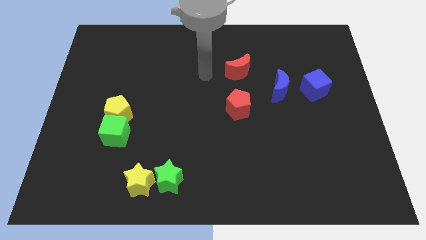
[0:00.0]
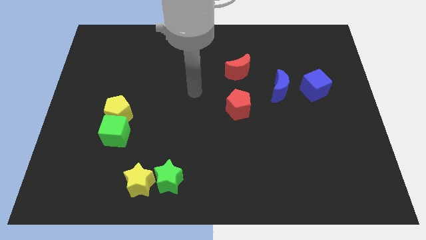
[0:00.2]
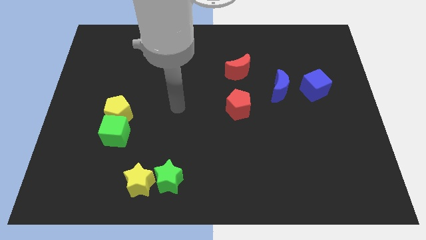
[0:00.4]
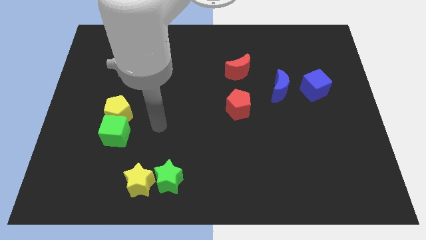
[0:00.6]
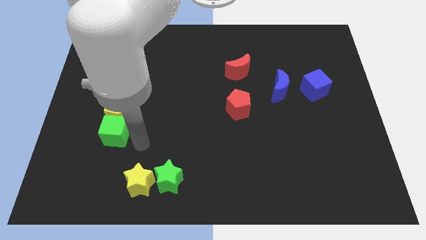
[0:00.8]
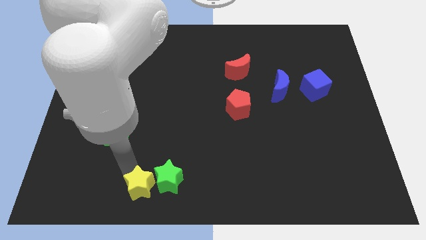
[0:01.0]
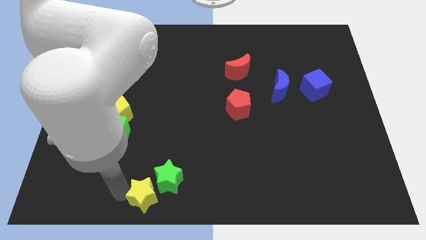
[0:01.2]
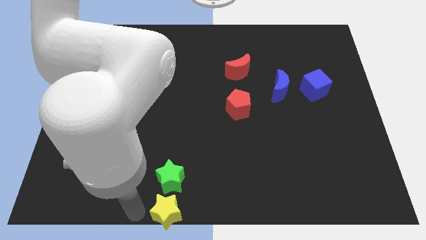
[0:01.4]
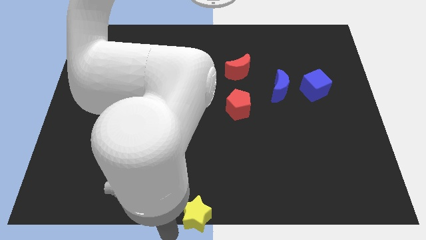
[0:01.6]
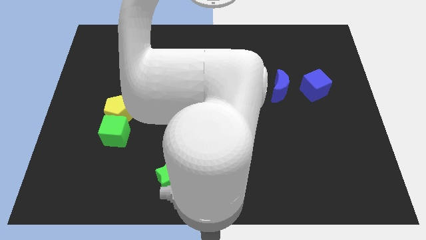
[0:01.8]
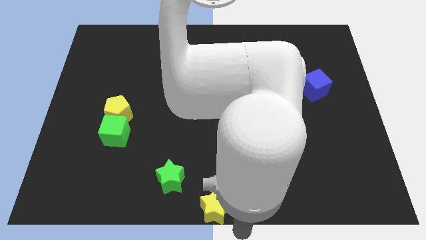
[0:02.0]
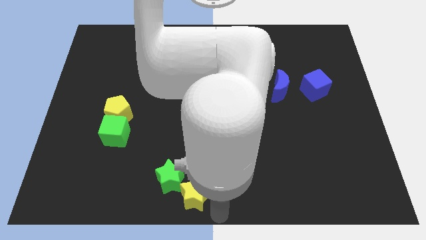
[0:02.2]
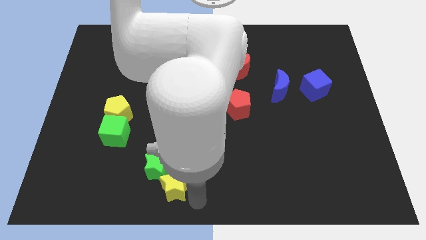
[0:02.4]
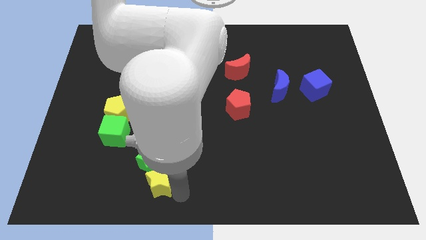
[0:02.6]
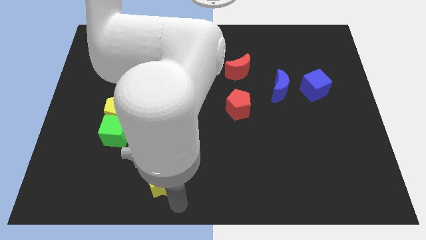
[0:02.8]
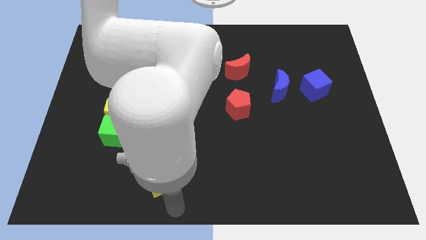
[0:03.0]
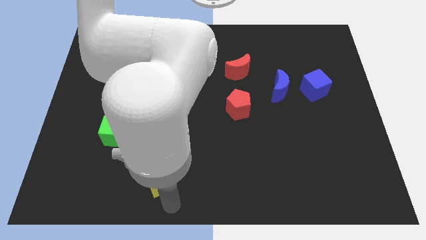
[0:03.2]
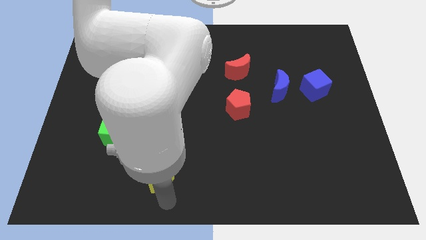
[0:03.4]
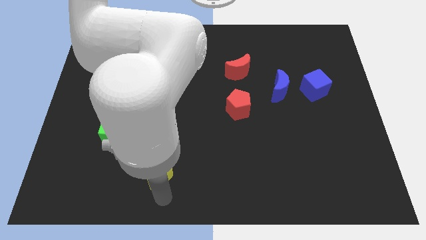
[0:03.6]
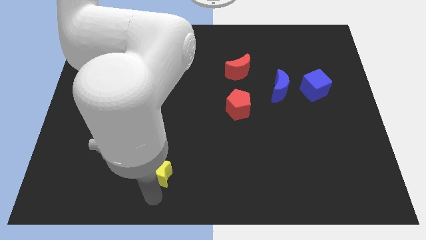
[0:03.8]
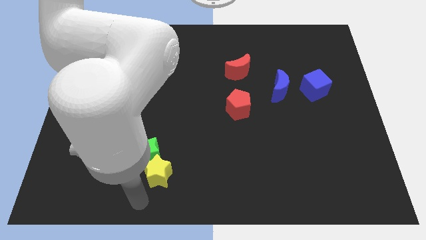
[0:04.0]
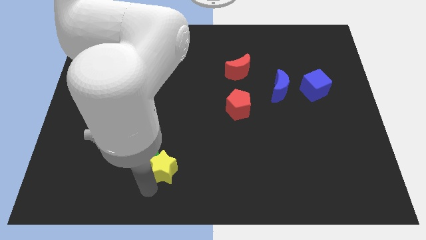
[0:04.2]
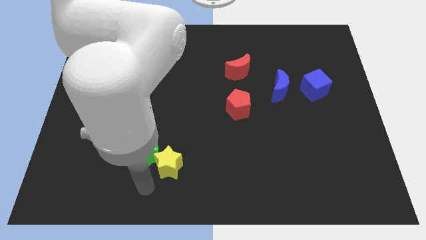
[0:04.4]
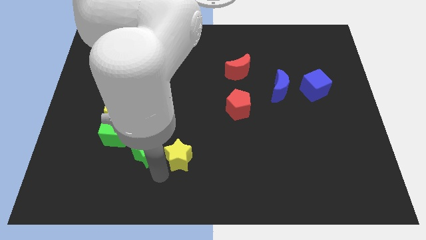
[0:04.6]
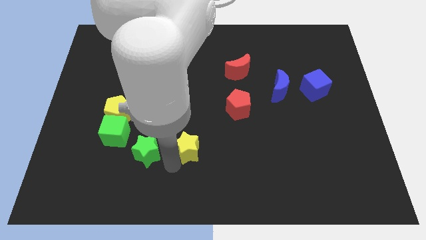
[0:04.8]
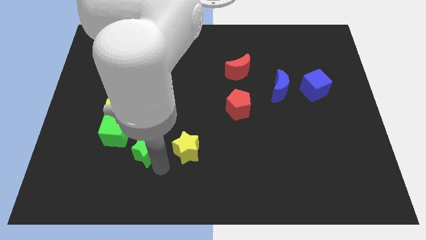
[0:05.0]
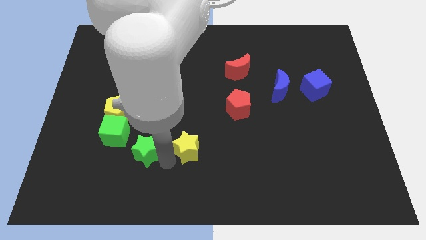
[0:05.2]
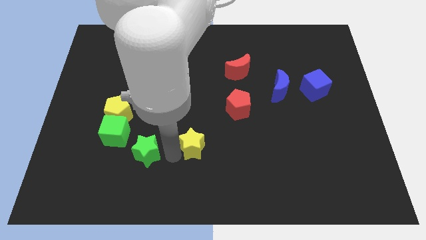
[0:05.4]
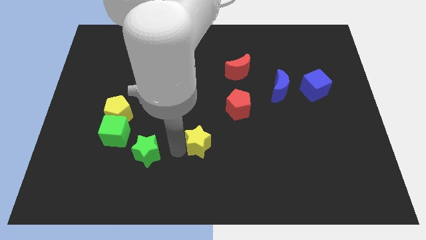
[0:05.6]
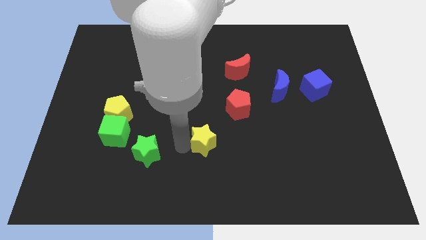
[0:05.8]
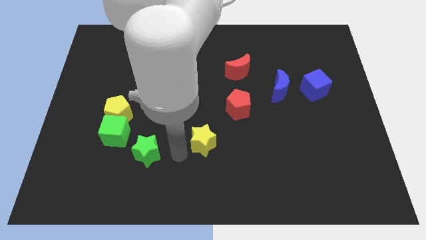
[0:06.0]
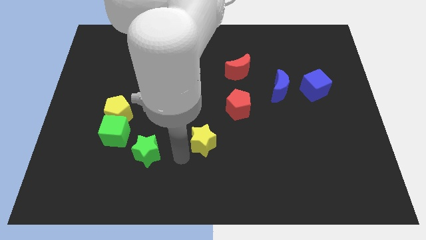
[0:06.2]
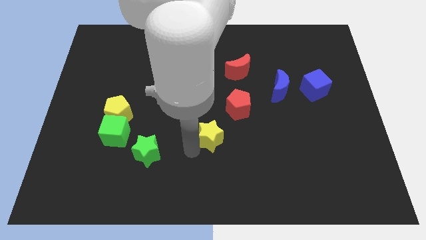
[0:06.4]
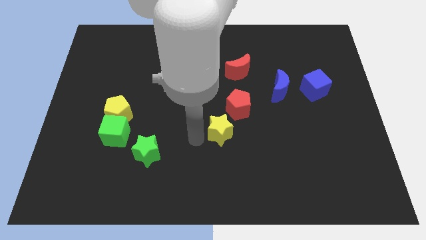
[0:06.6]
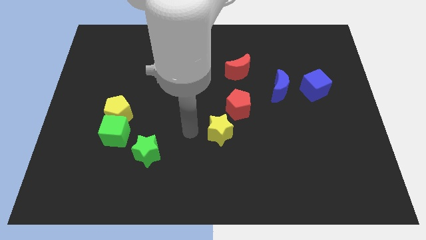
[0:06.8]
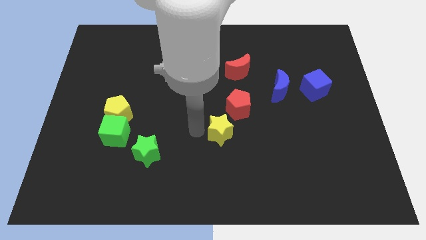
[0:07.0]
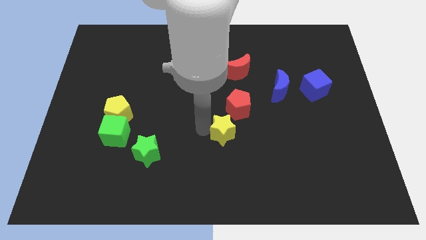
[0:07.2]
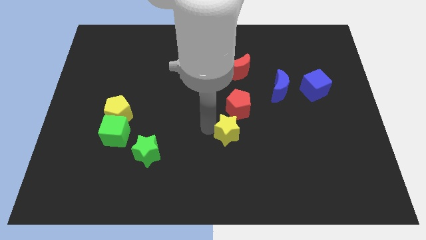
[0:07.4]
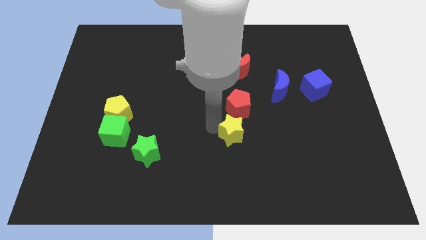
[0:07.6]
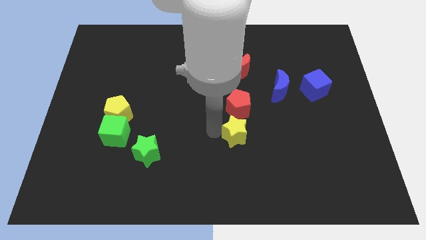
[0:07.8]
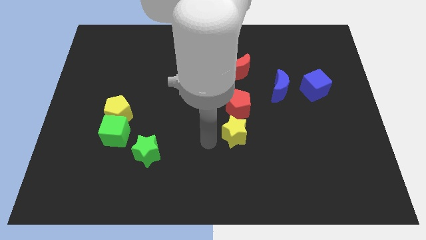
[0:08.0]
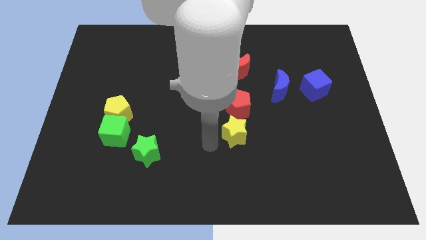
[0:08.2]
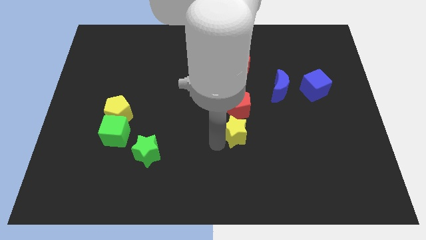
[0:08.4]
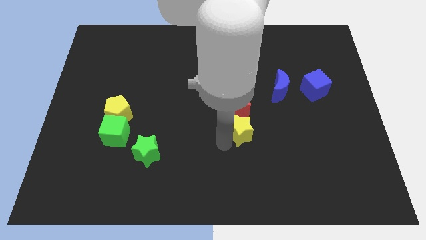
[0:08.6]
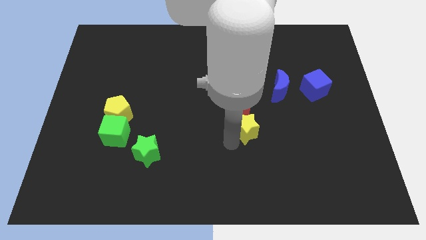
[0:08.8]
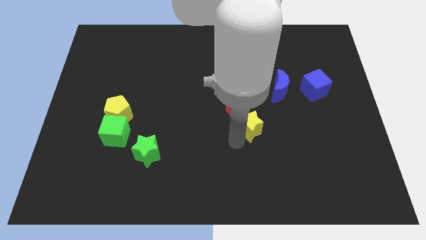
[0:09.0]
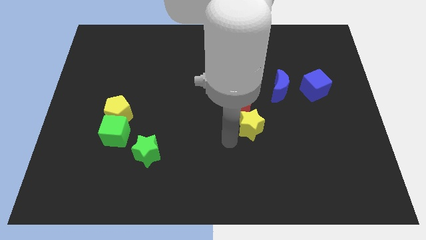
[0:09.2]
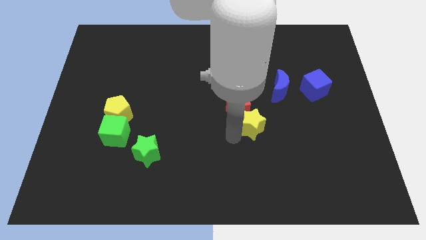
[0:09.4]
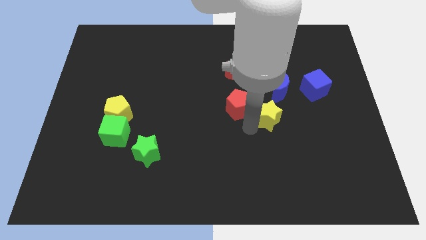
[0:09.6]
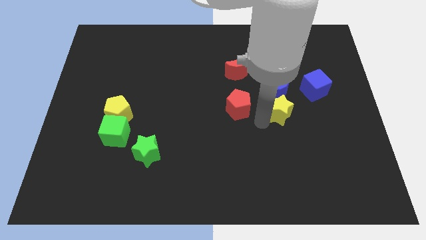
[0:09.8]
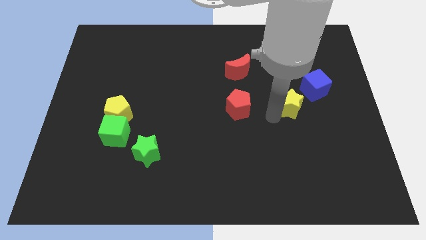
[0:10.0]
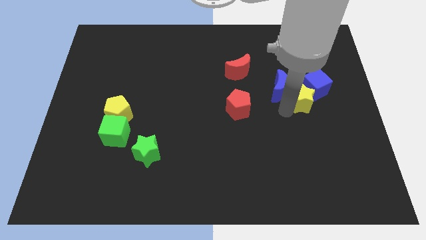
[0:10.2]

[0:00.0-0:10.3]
put the yellow star towards the blue cube

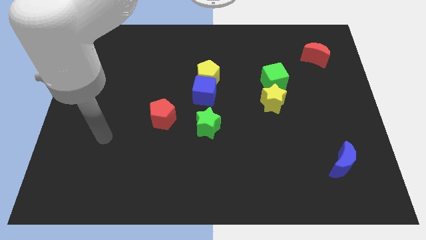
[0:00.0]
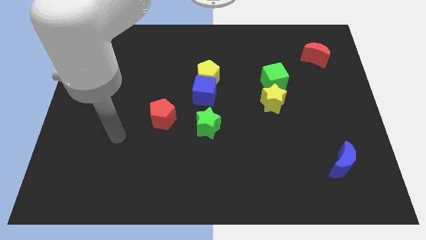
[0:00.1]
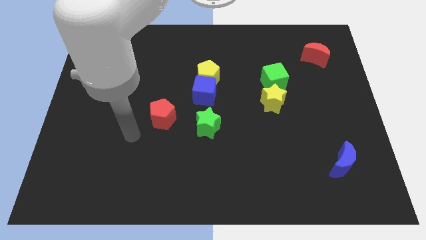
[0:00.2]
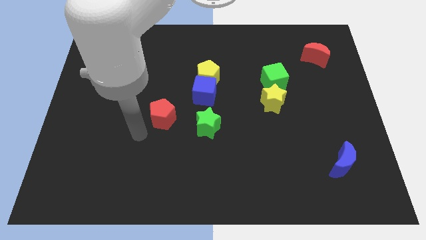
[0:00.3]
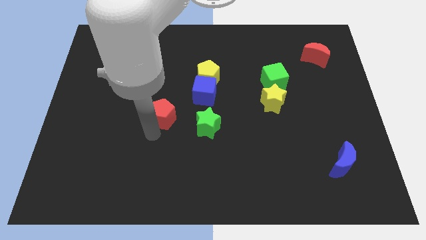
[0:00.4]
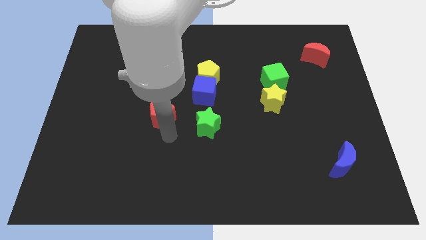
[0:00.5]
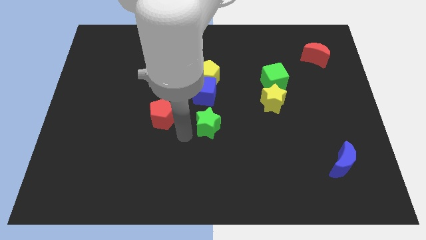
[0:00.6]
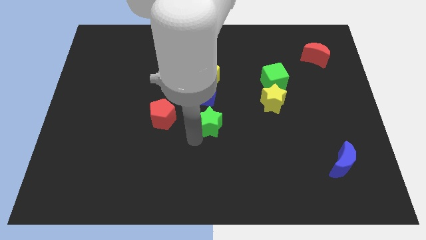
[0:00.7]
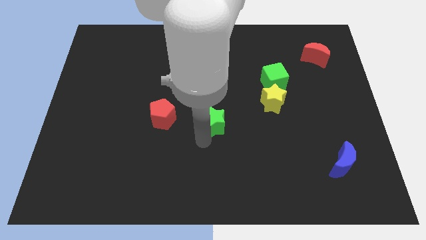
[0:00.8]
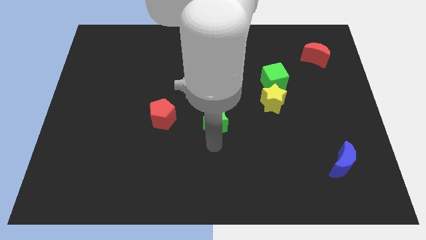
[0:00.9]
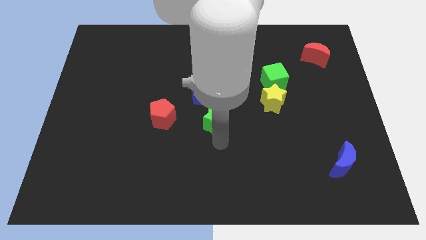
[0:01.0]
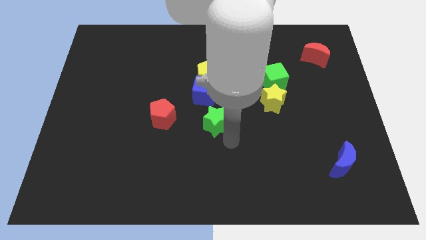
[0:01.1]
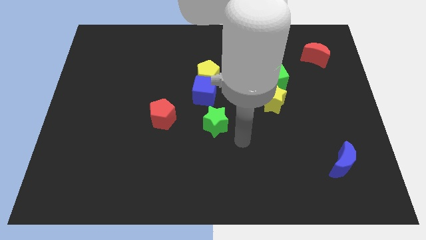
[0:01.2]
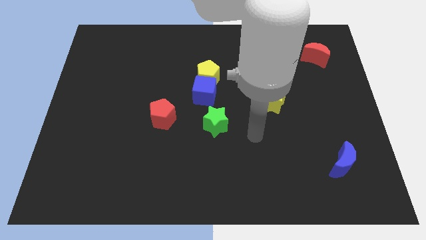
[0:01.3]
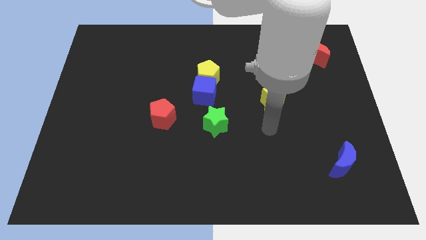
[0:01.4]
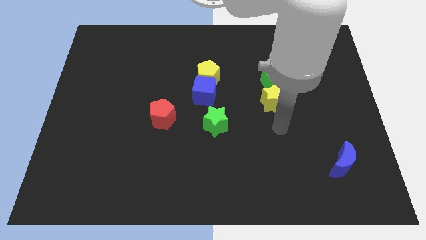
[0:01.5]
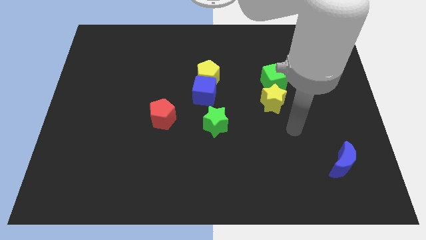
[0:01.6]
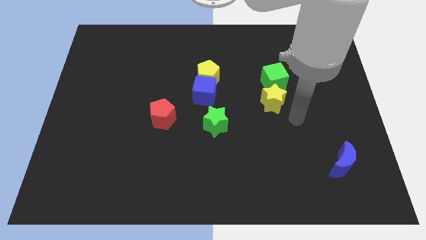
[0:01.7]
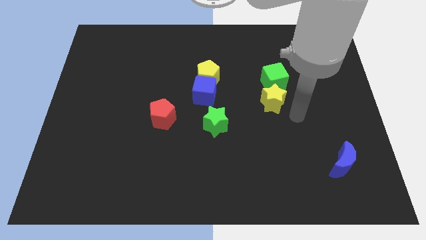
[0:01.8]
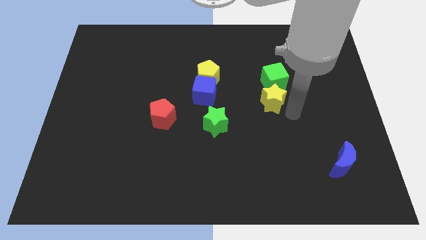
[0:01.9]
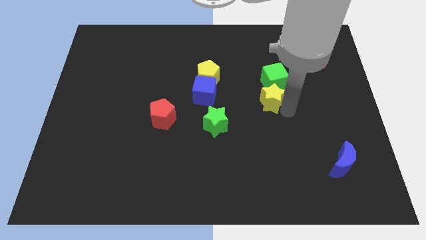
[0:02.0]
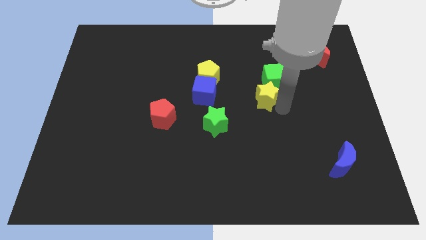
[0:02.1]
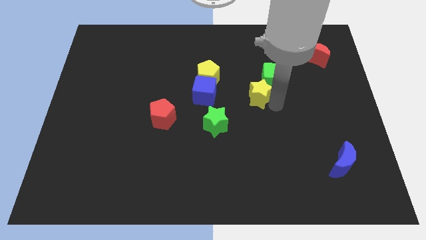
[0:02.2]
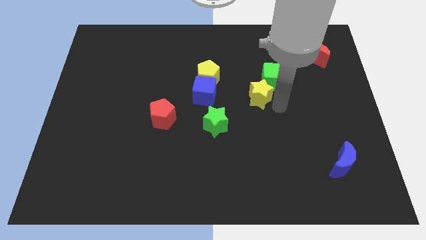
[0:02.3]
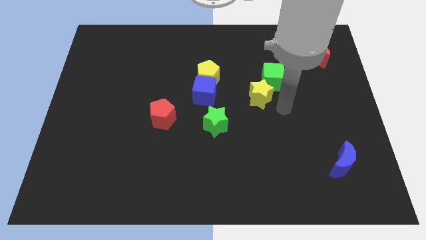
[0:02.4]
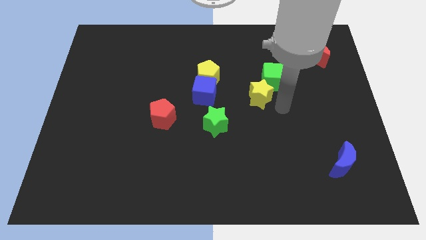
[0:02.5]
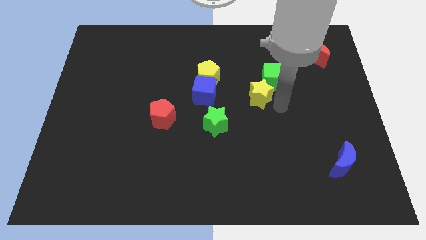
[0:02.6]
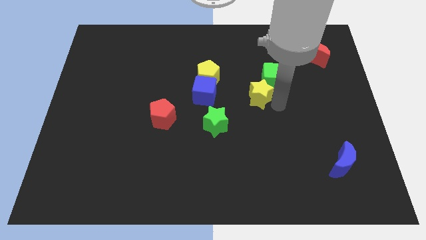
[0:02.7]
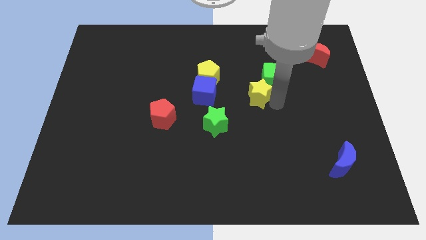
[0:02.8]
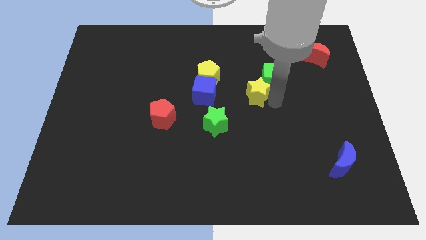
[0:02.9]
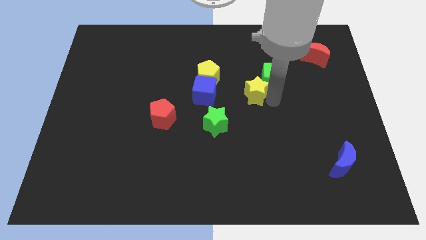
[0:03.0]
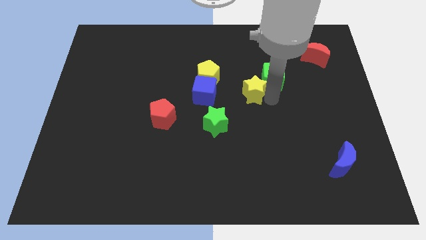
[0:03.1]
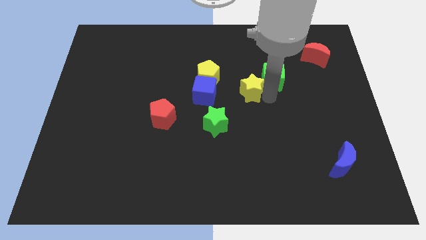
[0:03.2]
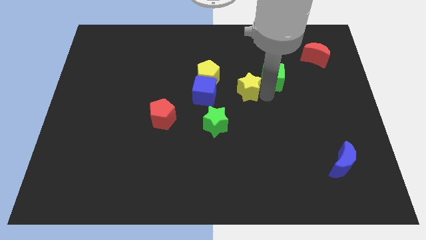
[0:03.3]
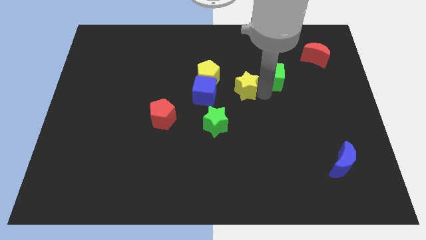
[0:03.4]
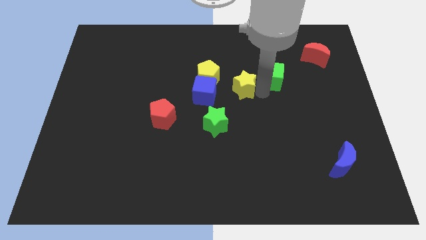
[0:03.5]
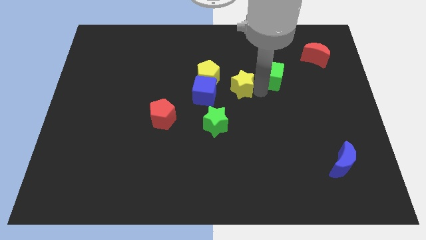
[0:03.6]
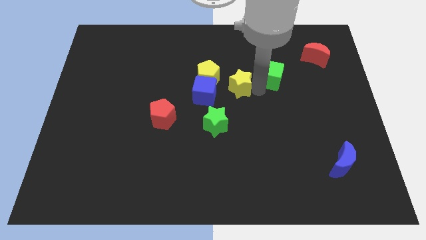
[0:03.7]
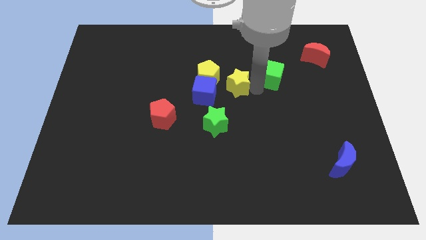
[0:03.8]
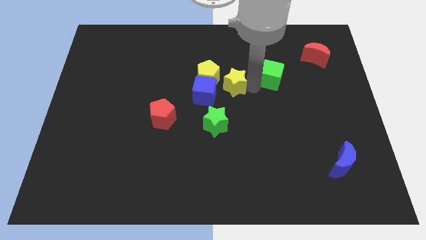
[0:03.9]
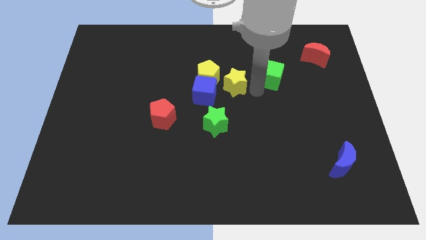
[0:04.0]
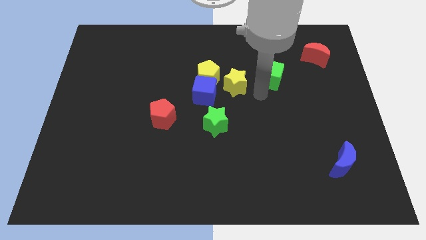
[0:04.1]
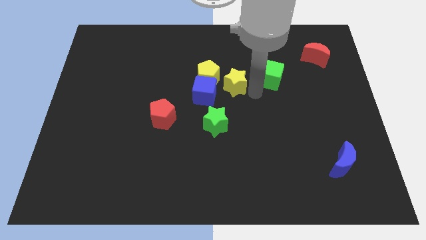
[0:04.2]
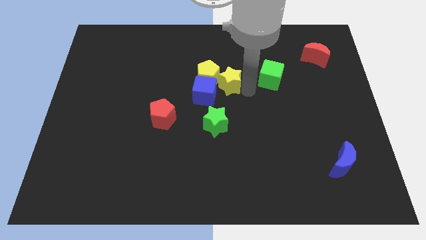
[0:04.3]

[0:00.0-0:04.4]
push the yellow star towards the yellow pentagon
